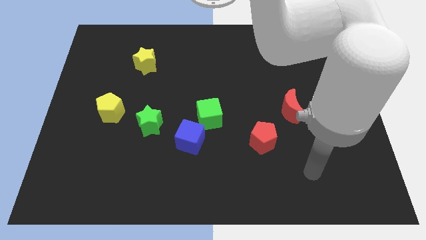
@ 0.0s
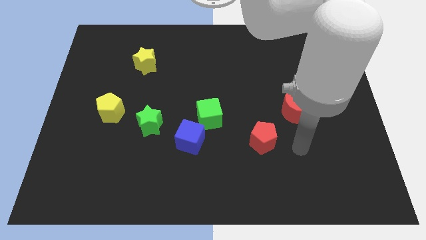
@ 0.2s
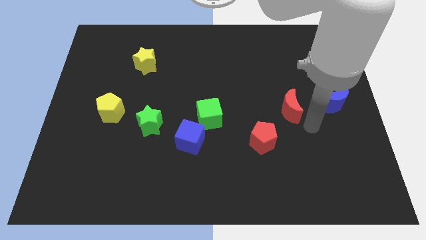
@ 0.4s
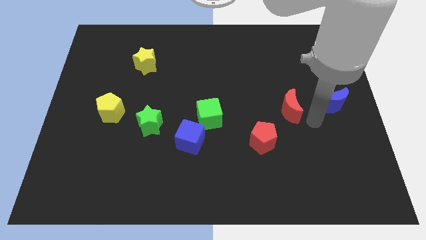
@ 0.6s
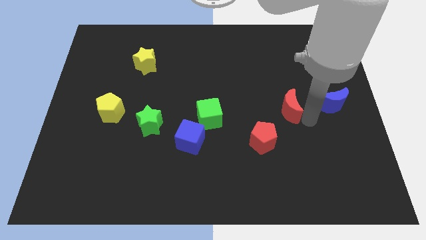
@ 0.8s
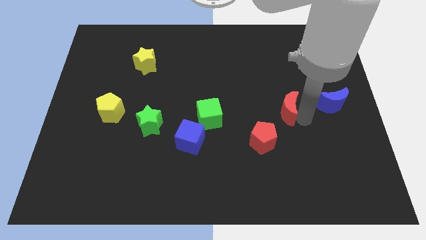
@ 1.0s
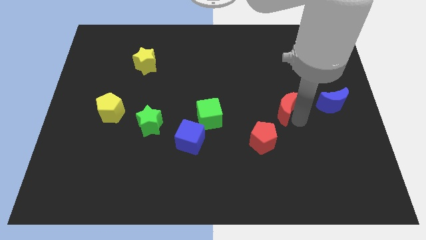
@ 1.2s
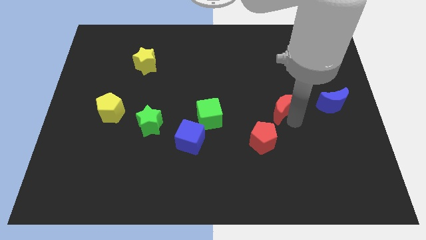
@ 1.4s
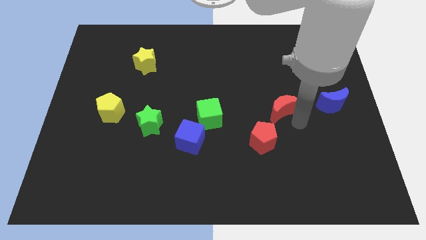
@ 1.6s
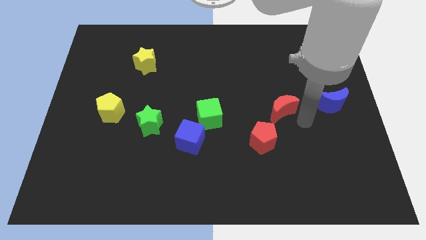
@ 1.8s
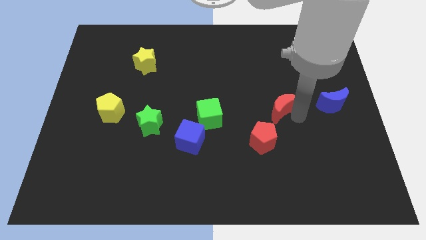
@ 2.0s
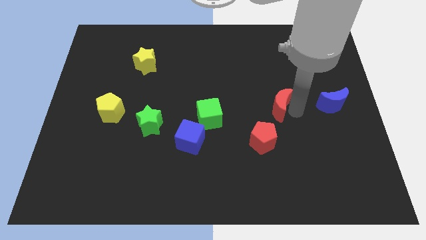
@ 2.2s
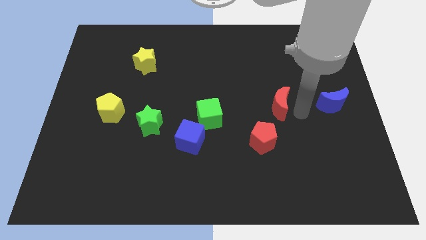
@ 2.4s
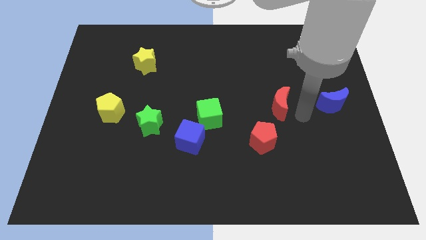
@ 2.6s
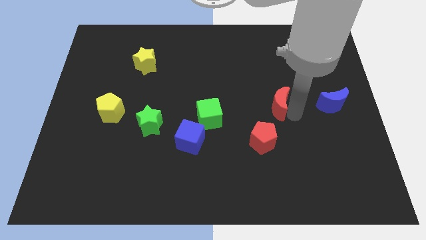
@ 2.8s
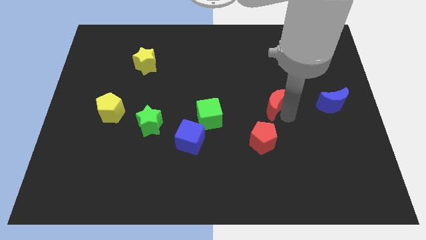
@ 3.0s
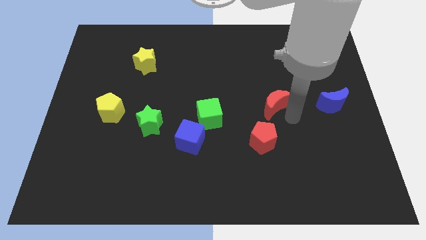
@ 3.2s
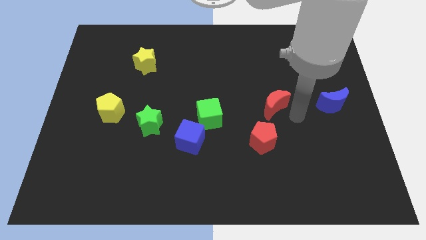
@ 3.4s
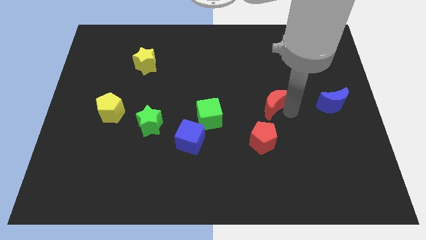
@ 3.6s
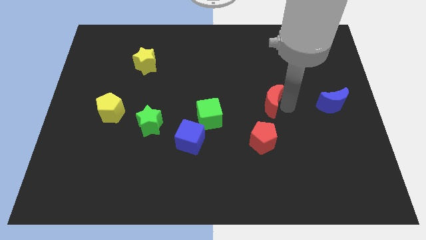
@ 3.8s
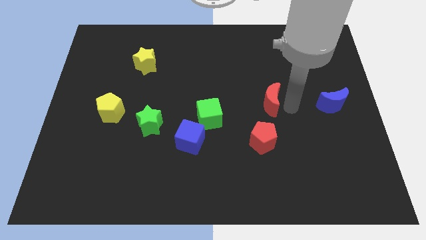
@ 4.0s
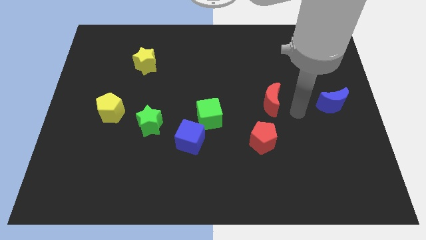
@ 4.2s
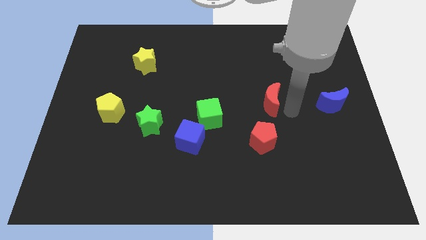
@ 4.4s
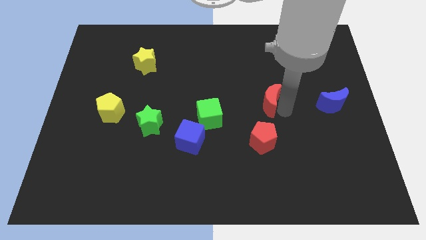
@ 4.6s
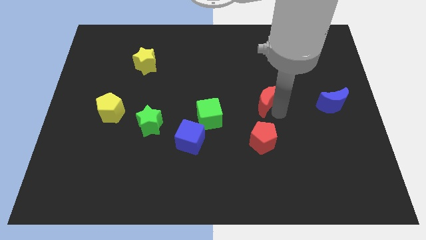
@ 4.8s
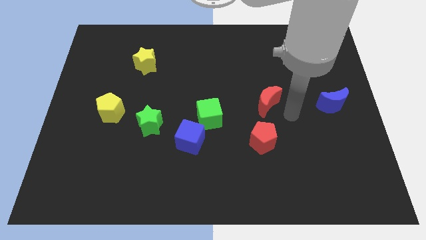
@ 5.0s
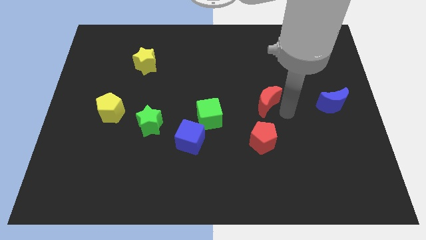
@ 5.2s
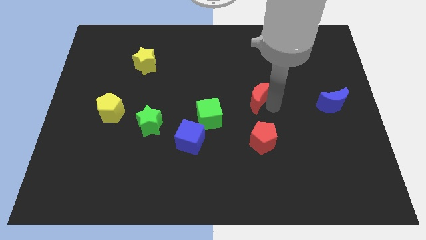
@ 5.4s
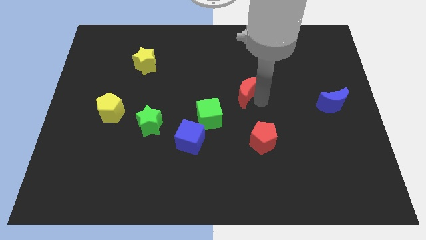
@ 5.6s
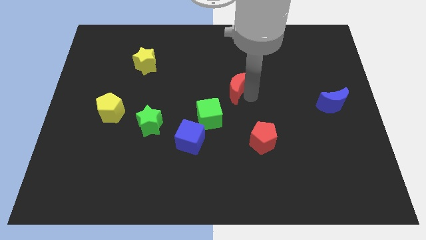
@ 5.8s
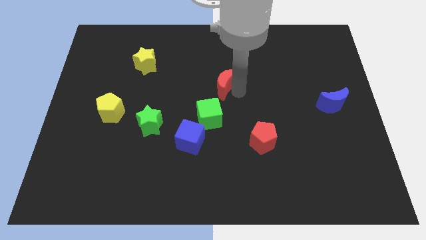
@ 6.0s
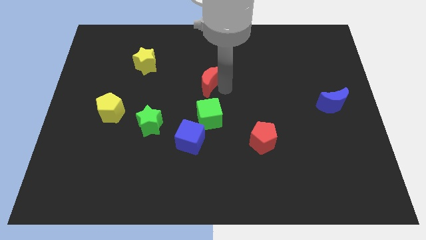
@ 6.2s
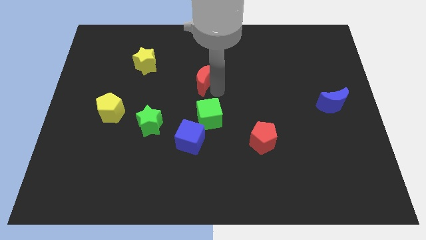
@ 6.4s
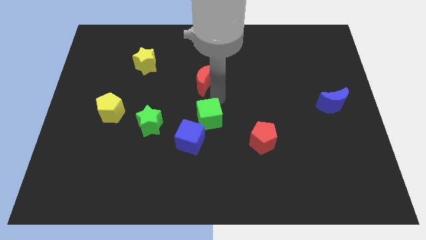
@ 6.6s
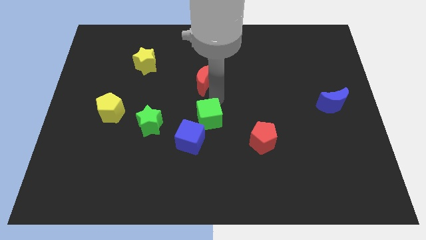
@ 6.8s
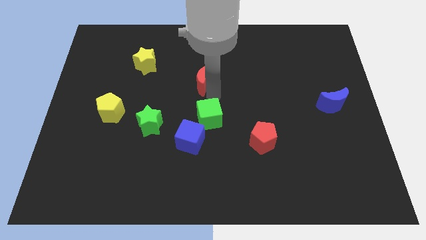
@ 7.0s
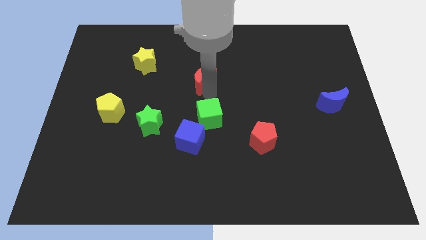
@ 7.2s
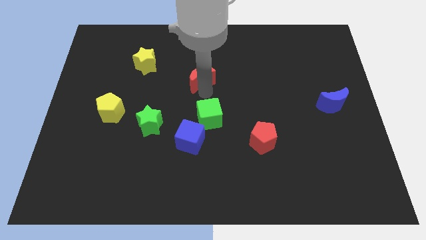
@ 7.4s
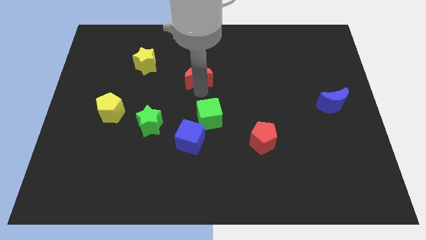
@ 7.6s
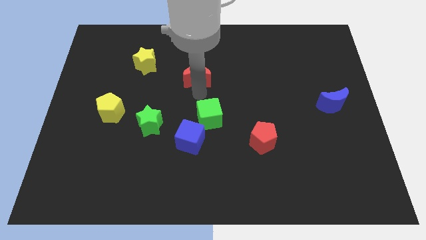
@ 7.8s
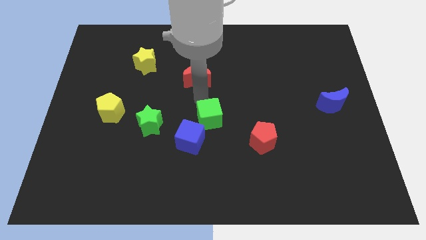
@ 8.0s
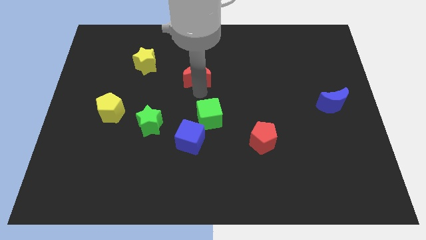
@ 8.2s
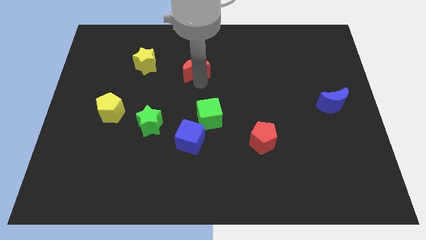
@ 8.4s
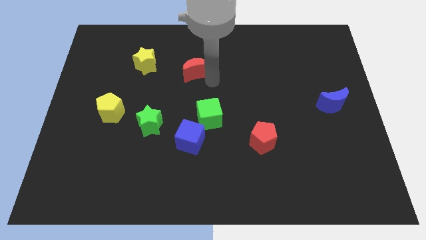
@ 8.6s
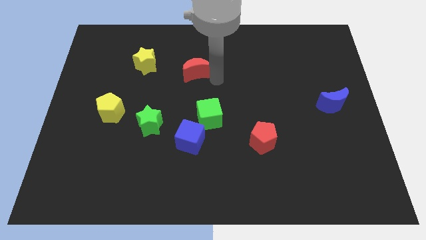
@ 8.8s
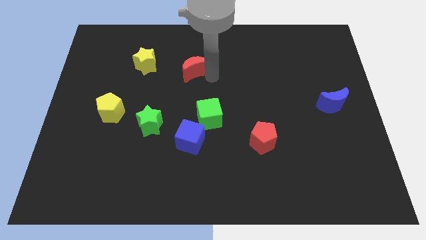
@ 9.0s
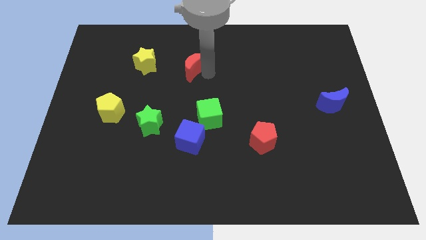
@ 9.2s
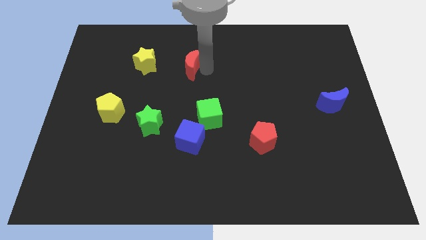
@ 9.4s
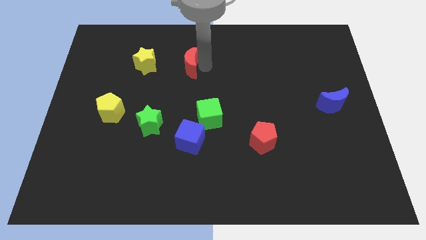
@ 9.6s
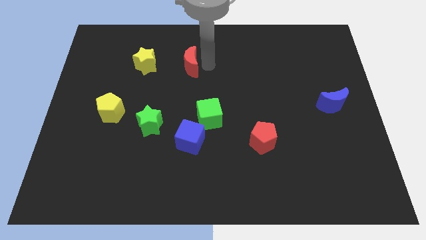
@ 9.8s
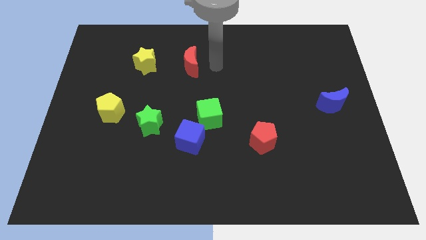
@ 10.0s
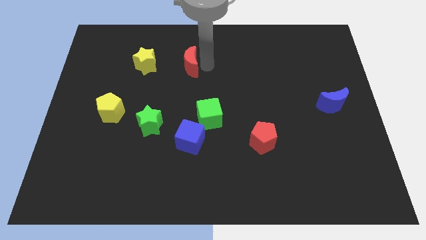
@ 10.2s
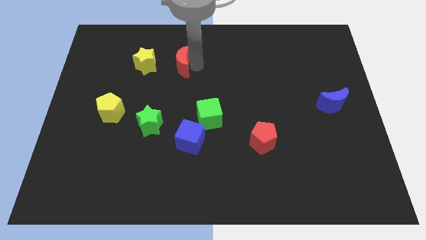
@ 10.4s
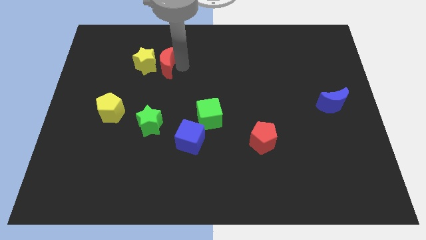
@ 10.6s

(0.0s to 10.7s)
put the red moon to the yellow star

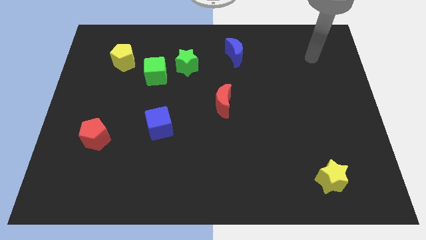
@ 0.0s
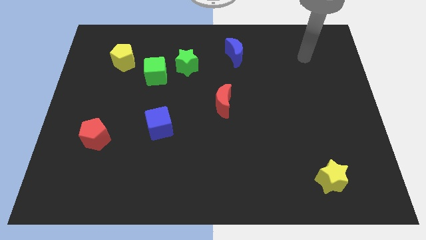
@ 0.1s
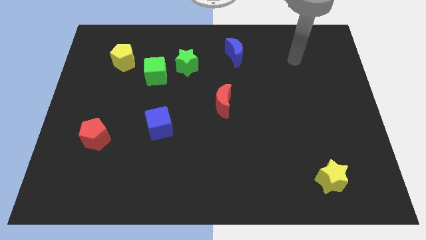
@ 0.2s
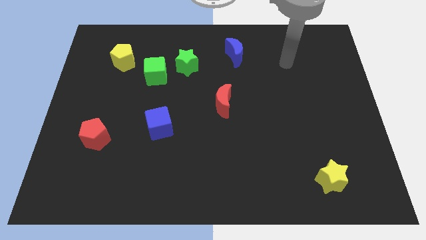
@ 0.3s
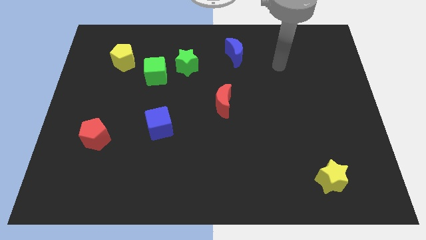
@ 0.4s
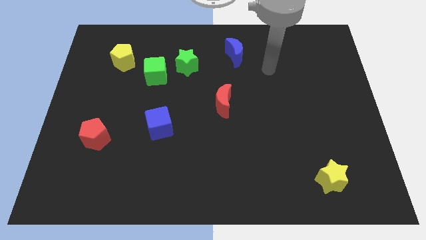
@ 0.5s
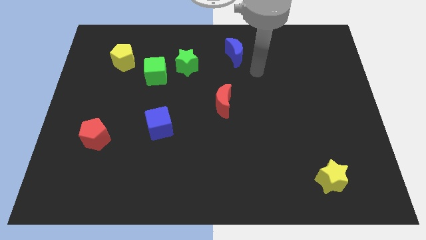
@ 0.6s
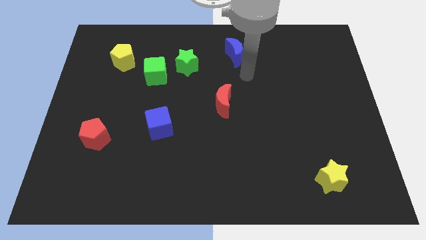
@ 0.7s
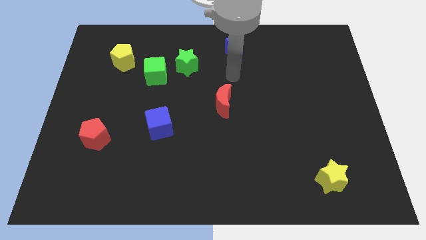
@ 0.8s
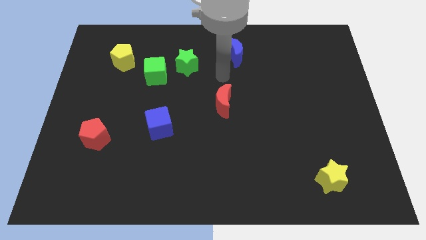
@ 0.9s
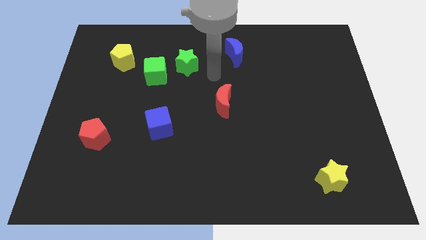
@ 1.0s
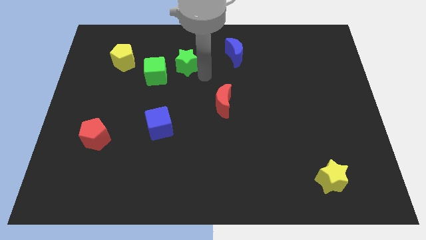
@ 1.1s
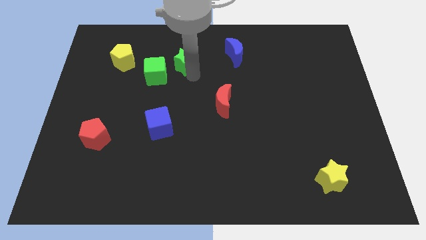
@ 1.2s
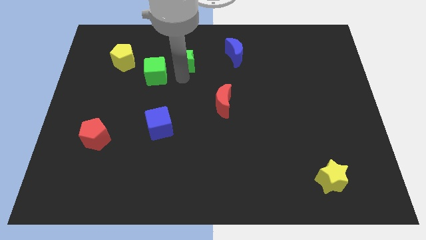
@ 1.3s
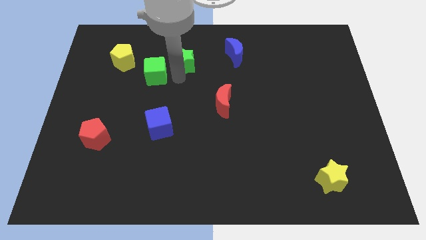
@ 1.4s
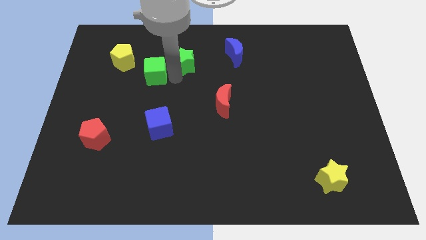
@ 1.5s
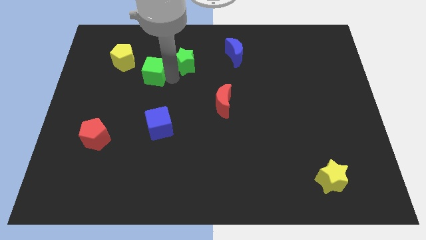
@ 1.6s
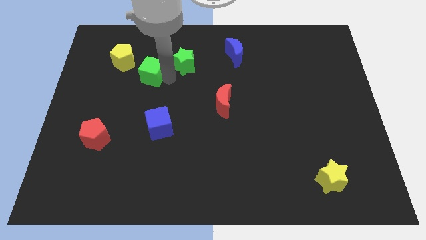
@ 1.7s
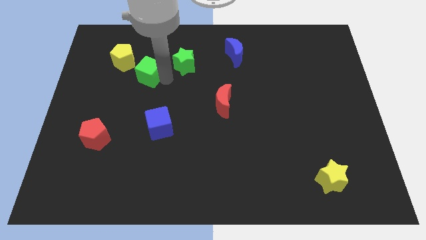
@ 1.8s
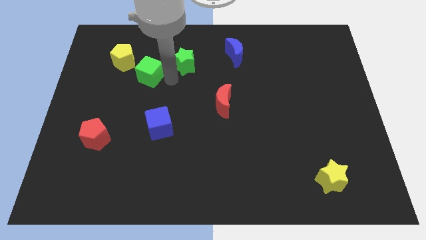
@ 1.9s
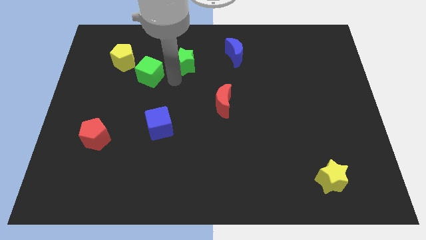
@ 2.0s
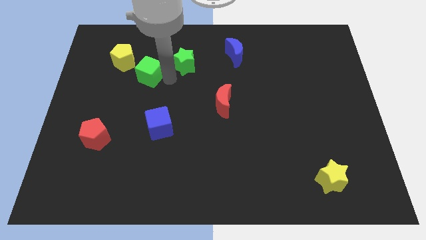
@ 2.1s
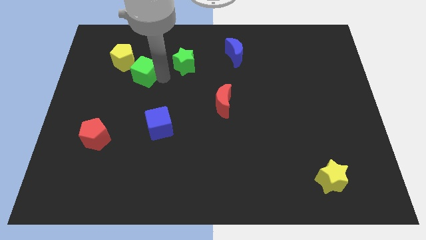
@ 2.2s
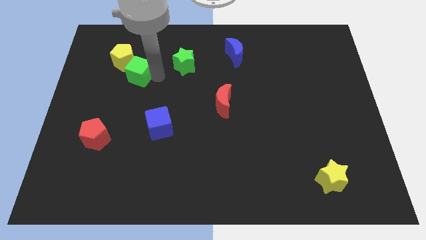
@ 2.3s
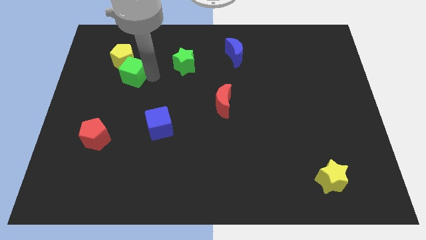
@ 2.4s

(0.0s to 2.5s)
push the green cube next to the yellow pentagon
